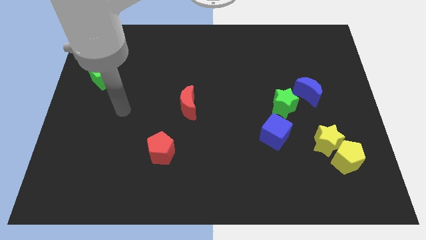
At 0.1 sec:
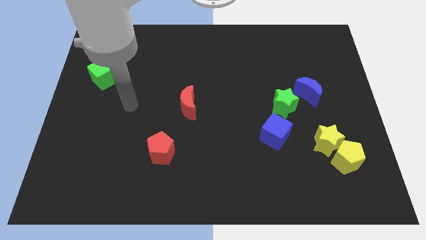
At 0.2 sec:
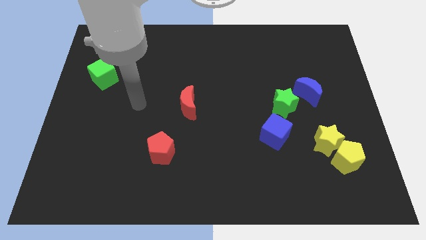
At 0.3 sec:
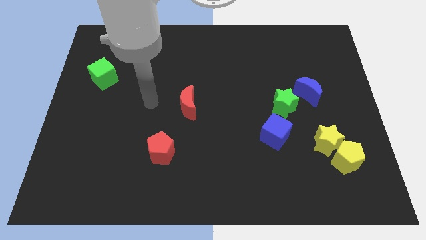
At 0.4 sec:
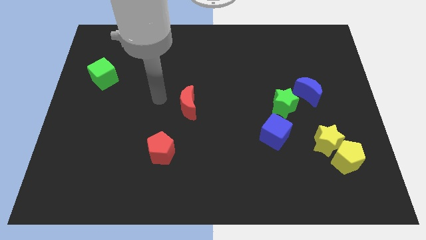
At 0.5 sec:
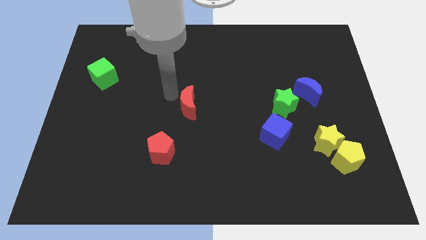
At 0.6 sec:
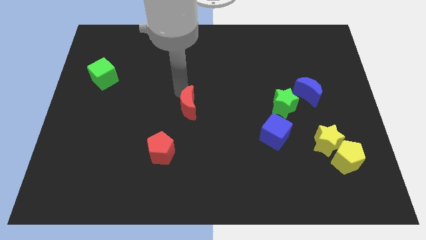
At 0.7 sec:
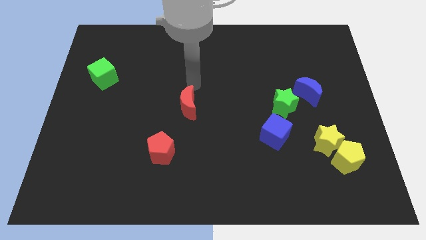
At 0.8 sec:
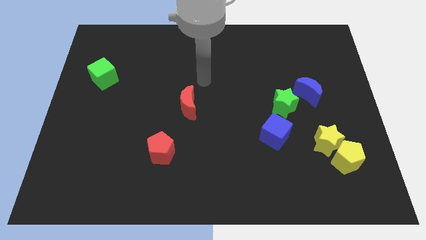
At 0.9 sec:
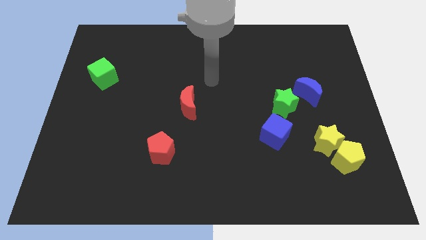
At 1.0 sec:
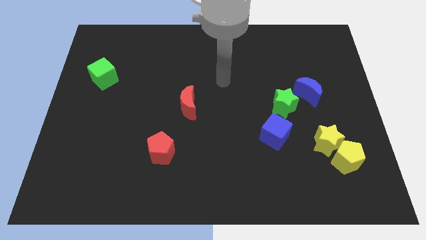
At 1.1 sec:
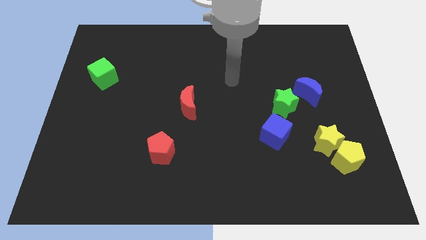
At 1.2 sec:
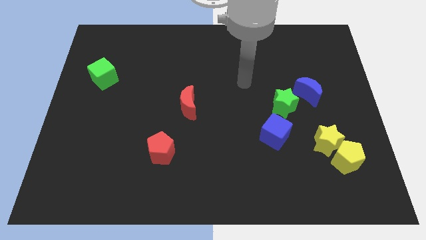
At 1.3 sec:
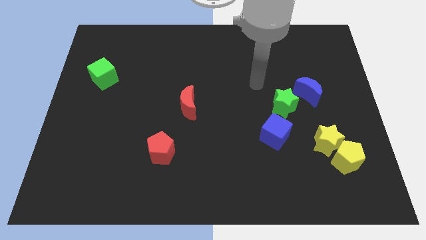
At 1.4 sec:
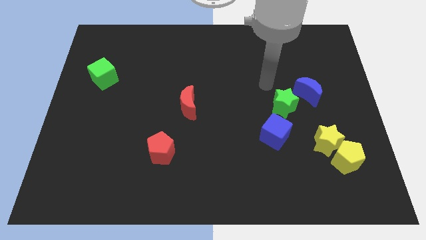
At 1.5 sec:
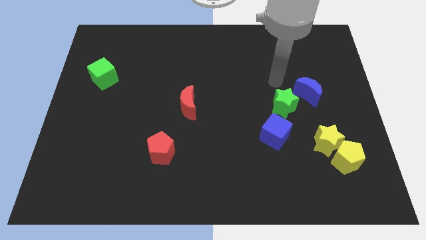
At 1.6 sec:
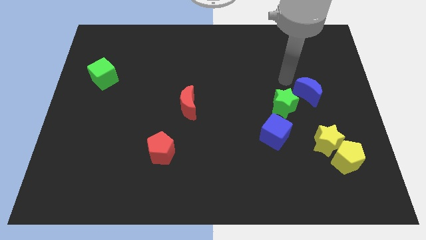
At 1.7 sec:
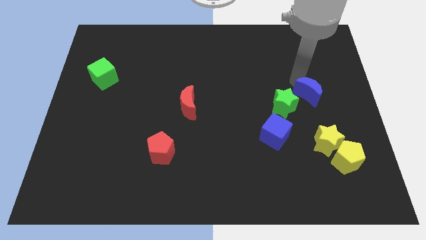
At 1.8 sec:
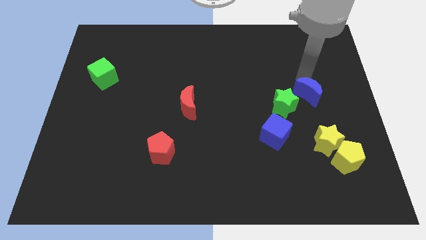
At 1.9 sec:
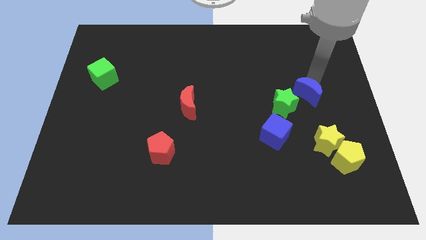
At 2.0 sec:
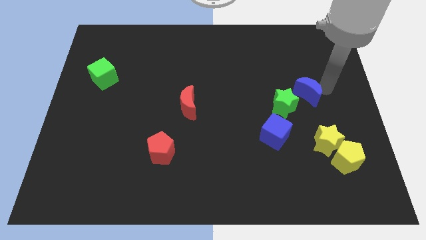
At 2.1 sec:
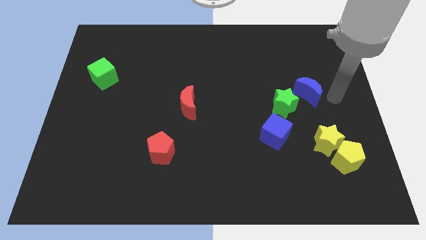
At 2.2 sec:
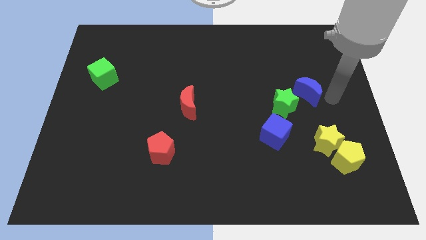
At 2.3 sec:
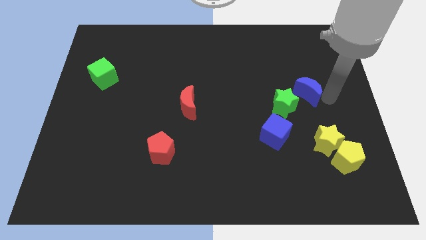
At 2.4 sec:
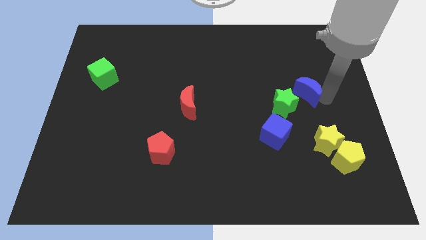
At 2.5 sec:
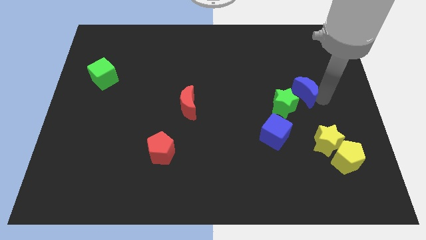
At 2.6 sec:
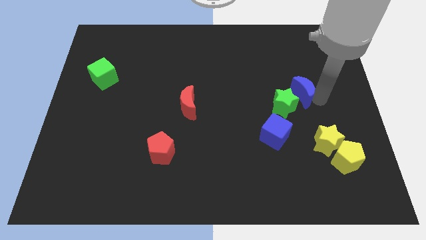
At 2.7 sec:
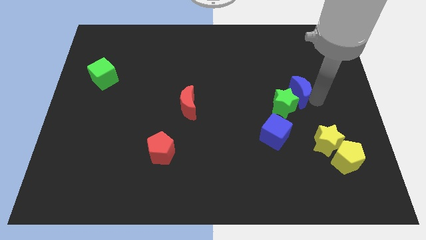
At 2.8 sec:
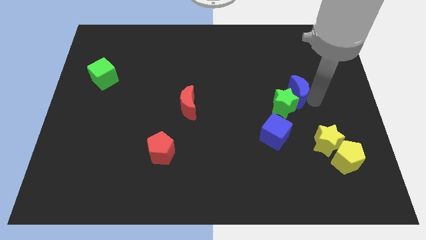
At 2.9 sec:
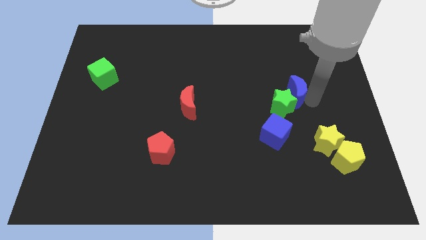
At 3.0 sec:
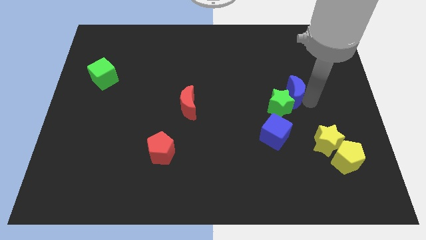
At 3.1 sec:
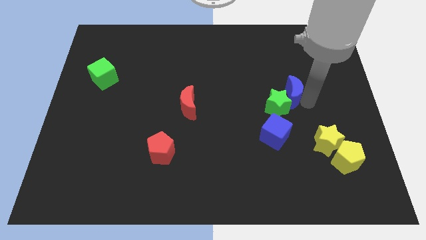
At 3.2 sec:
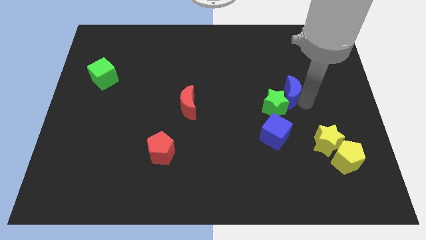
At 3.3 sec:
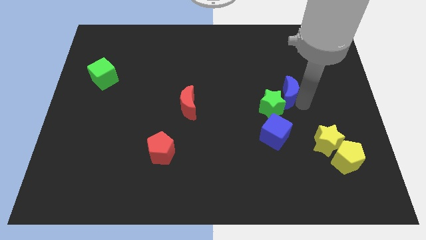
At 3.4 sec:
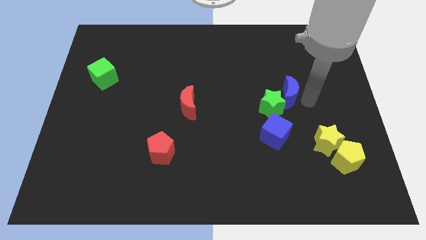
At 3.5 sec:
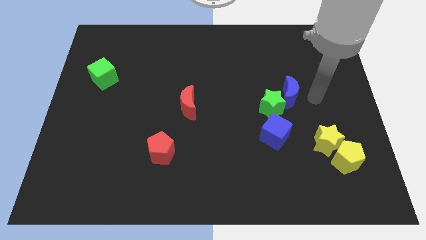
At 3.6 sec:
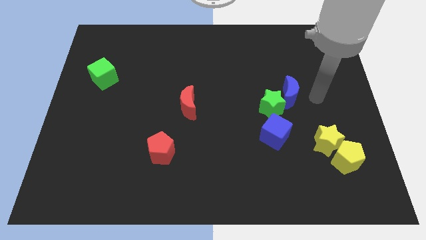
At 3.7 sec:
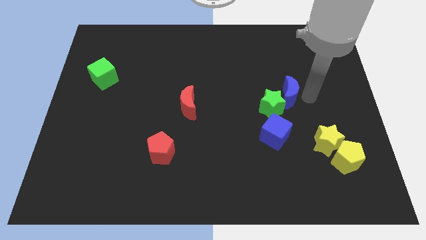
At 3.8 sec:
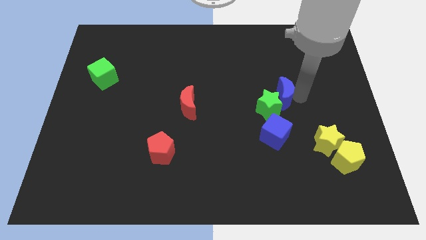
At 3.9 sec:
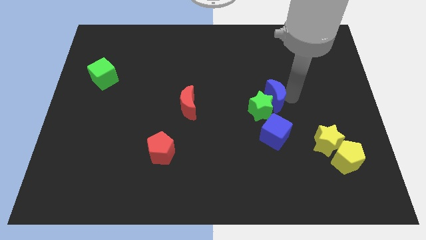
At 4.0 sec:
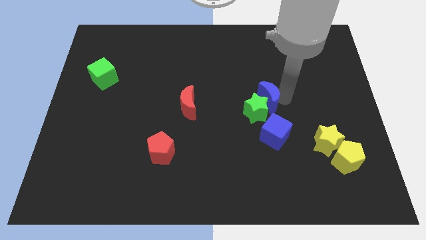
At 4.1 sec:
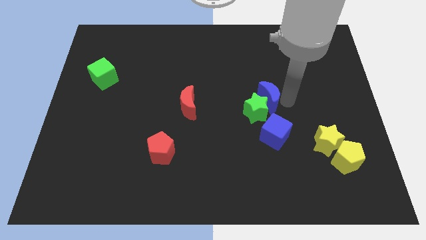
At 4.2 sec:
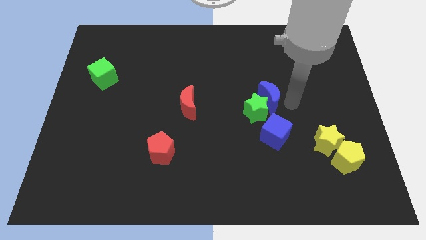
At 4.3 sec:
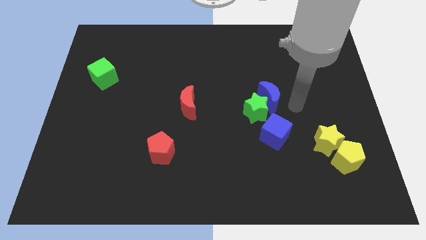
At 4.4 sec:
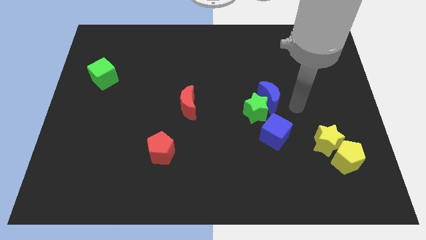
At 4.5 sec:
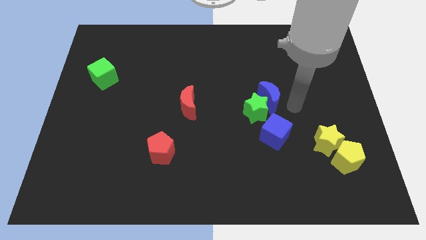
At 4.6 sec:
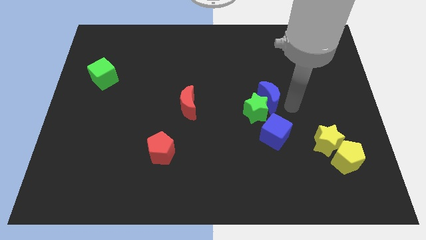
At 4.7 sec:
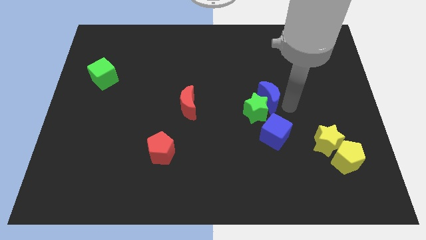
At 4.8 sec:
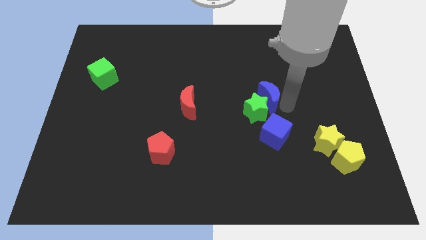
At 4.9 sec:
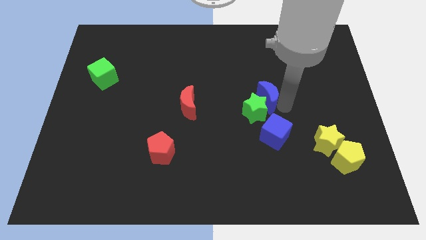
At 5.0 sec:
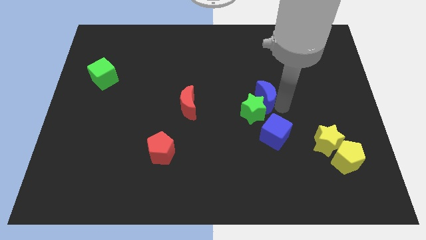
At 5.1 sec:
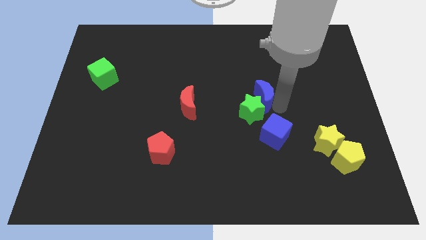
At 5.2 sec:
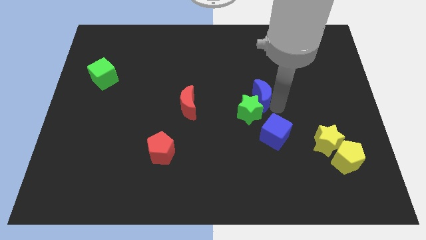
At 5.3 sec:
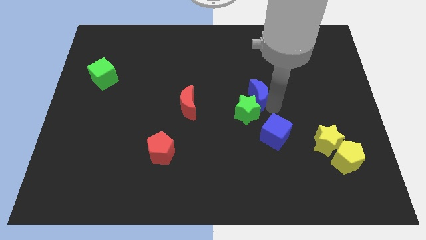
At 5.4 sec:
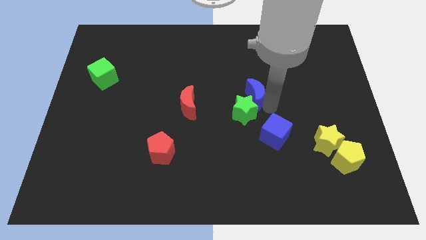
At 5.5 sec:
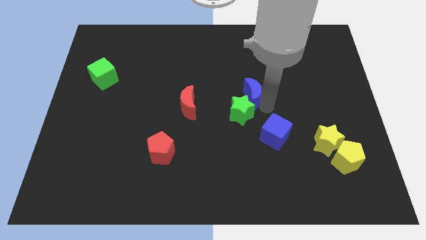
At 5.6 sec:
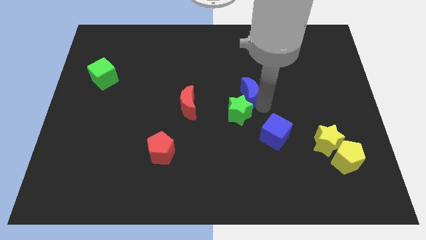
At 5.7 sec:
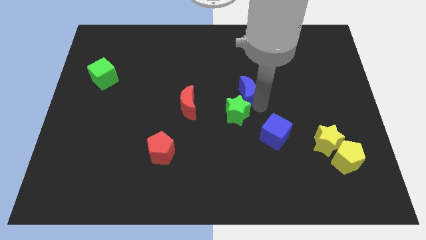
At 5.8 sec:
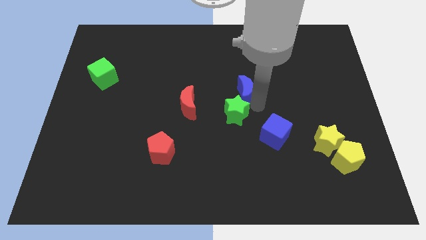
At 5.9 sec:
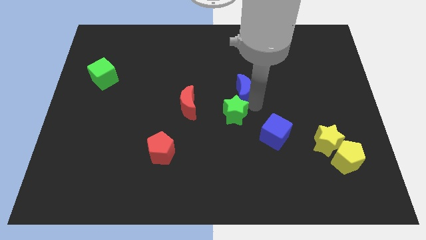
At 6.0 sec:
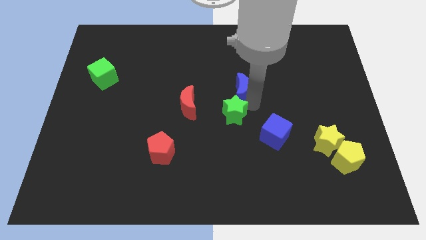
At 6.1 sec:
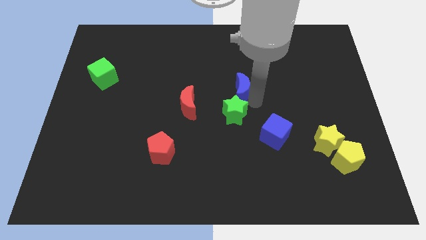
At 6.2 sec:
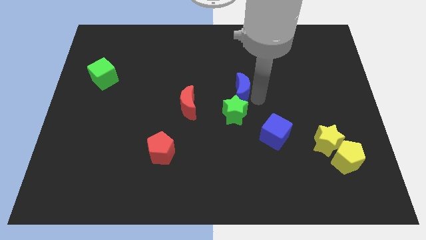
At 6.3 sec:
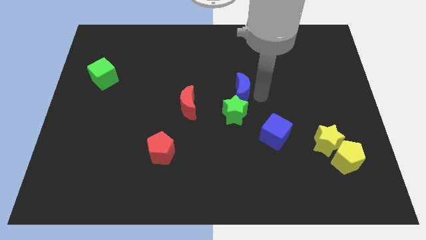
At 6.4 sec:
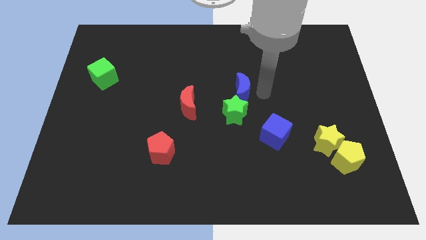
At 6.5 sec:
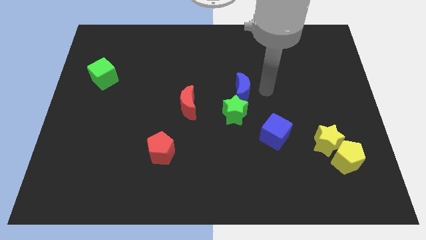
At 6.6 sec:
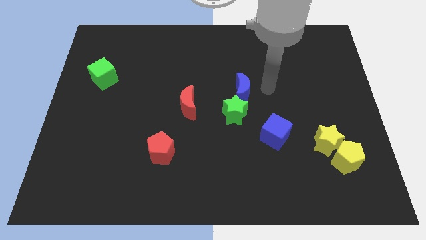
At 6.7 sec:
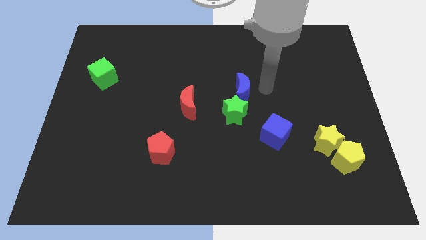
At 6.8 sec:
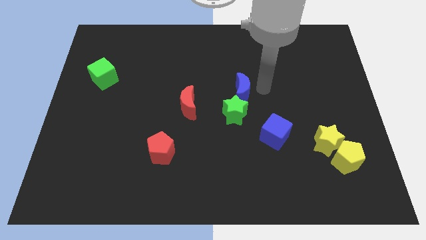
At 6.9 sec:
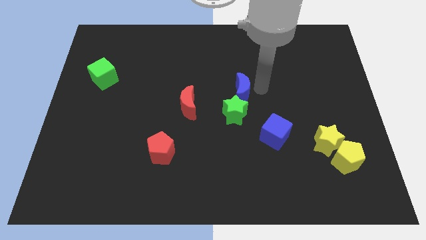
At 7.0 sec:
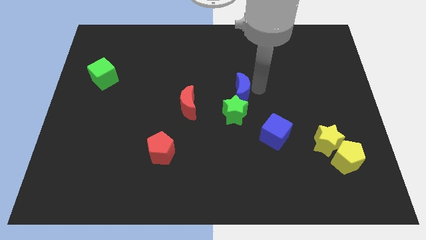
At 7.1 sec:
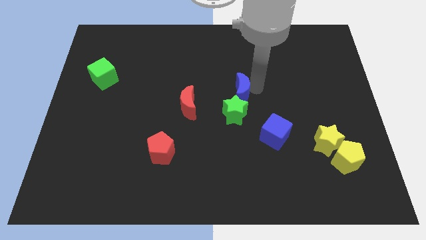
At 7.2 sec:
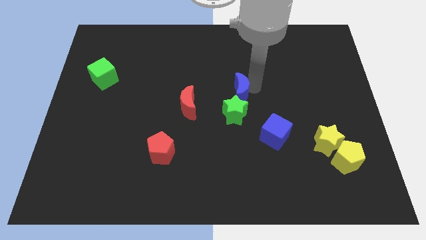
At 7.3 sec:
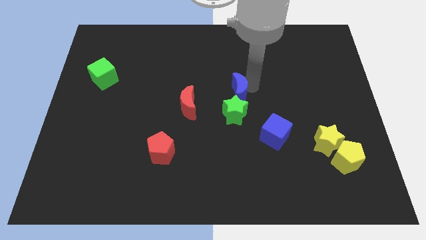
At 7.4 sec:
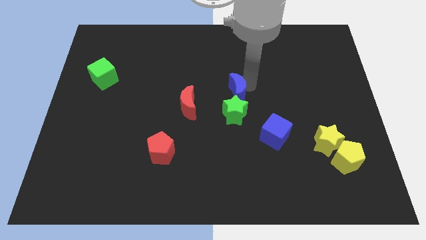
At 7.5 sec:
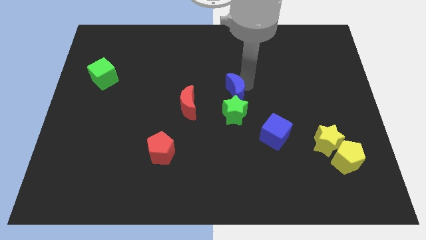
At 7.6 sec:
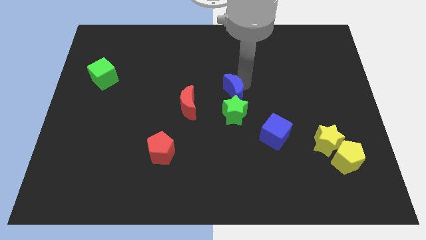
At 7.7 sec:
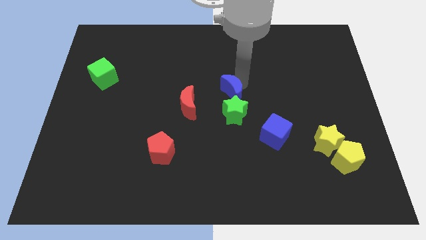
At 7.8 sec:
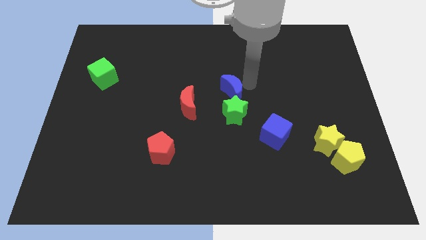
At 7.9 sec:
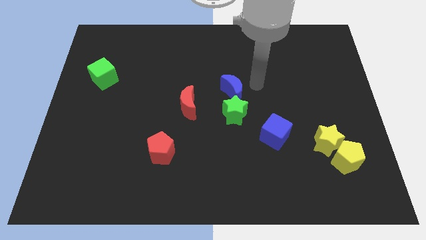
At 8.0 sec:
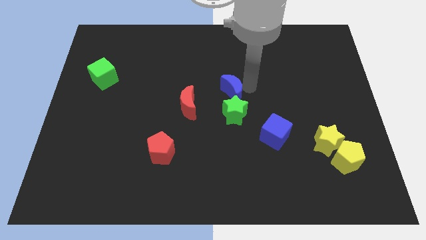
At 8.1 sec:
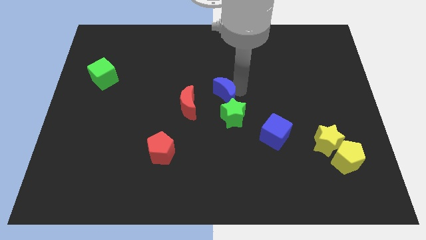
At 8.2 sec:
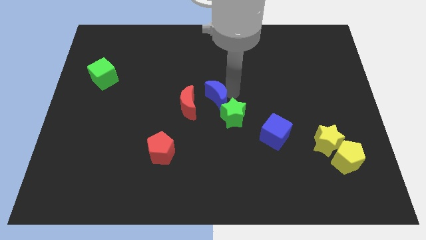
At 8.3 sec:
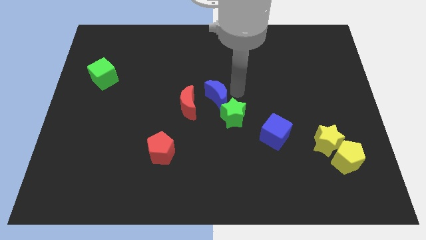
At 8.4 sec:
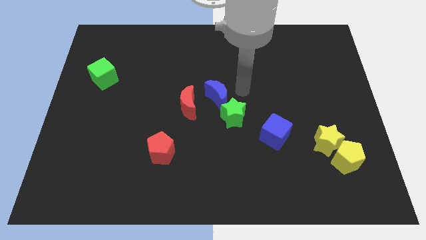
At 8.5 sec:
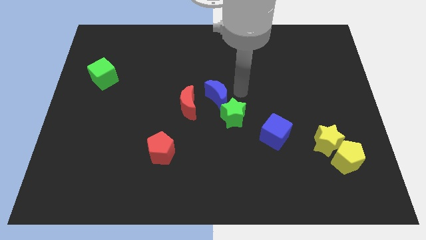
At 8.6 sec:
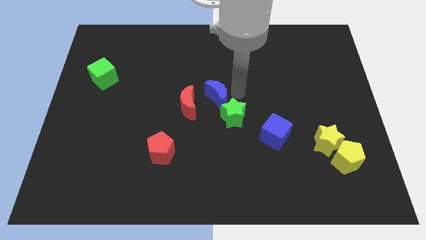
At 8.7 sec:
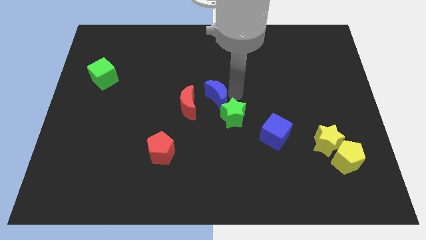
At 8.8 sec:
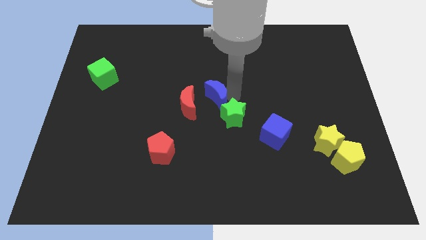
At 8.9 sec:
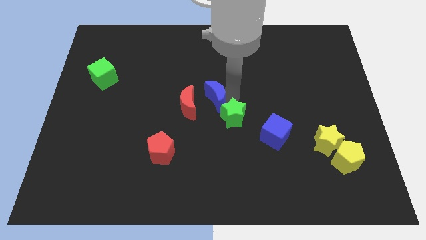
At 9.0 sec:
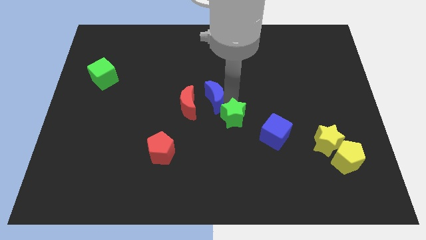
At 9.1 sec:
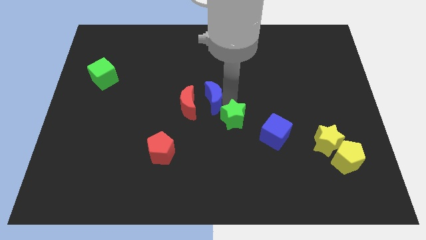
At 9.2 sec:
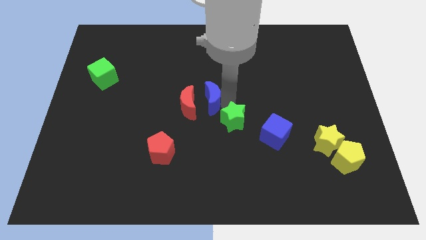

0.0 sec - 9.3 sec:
push the blue moon close to the red moon
